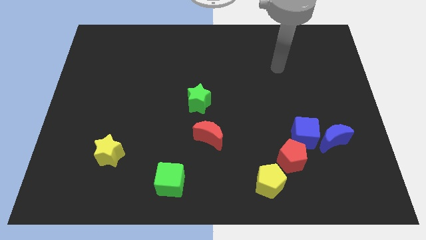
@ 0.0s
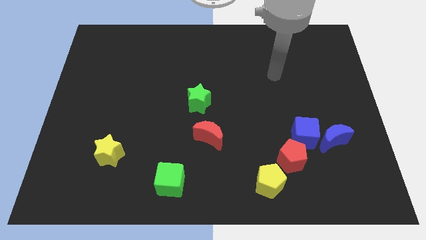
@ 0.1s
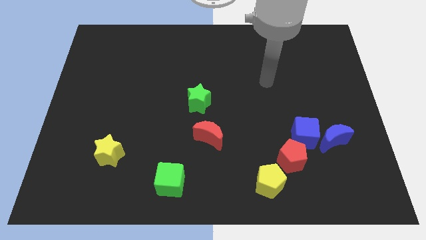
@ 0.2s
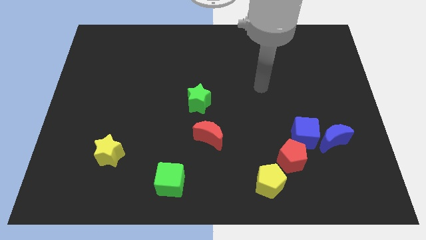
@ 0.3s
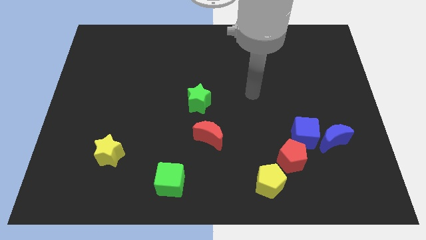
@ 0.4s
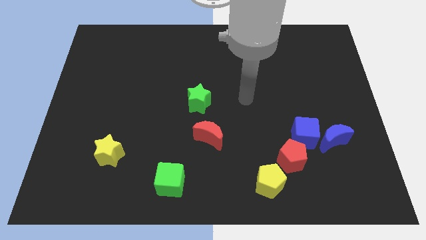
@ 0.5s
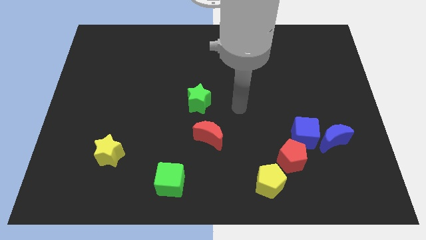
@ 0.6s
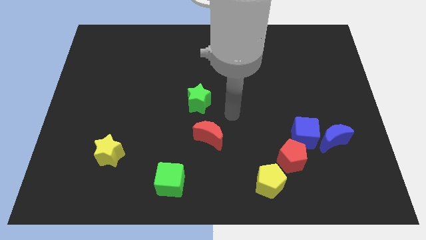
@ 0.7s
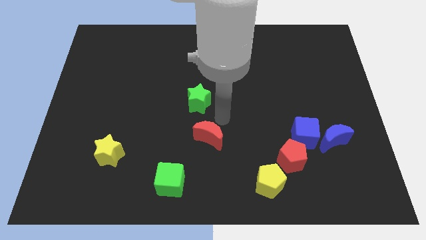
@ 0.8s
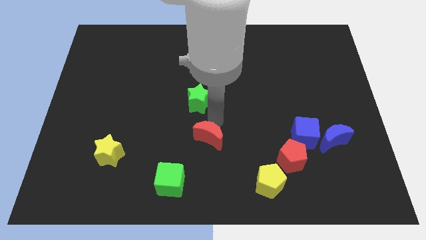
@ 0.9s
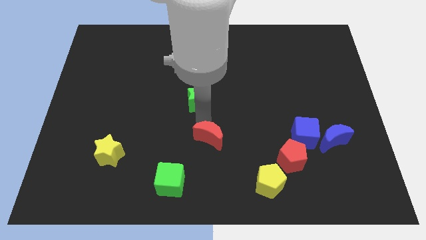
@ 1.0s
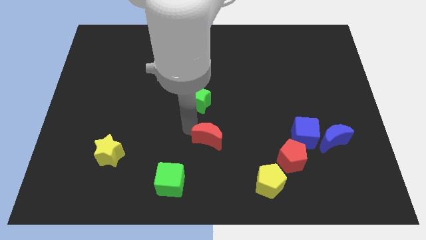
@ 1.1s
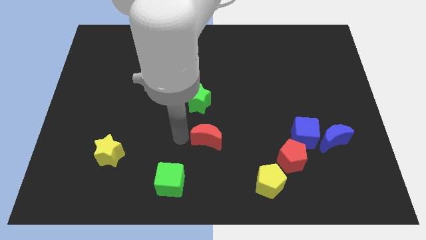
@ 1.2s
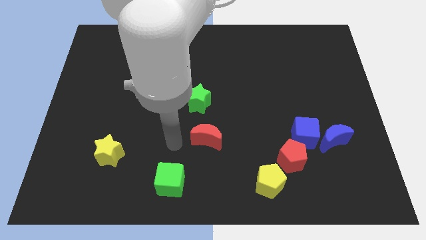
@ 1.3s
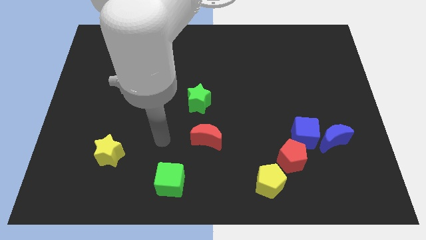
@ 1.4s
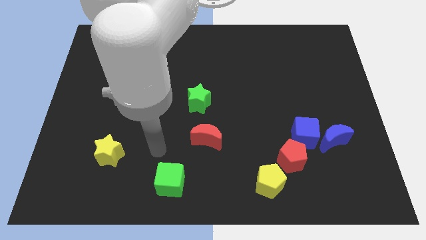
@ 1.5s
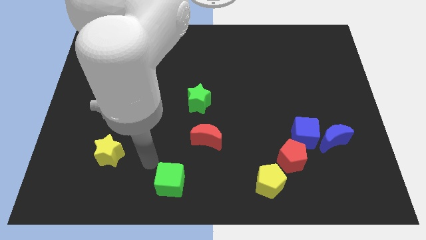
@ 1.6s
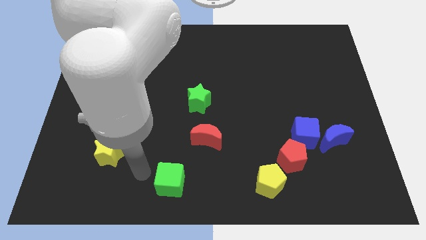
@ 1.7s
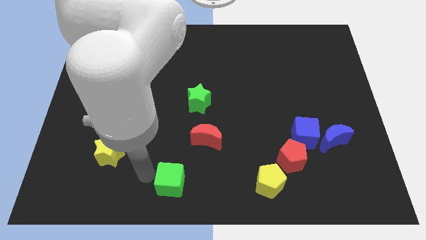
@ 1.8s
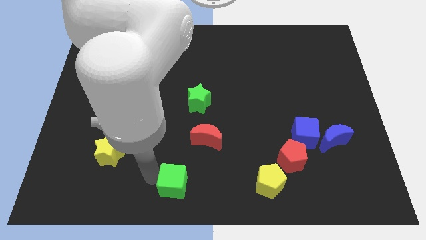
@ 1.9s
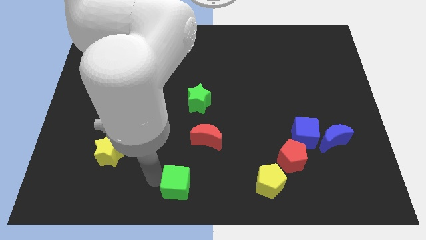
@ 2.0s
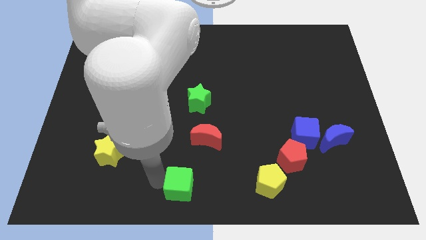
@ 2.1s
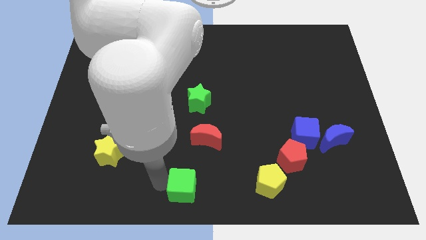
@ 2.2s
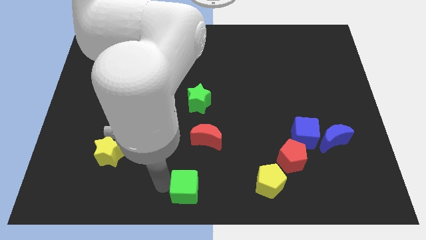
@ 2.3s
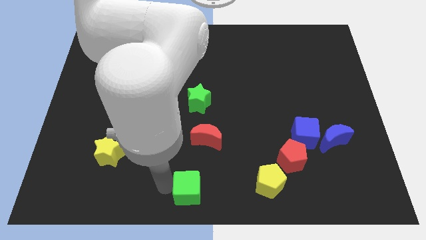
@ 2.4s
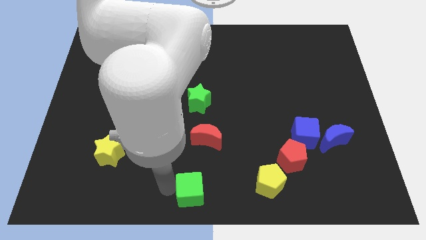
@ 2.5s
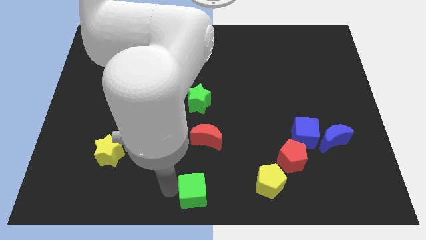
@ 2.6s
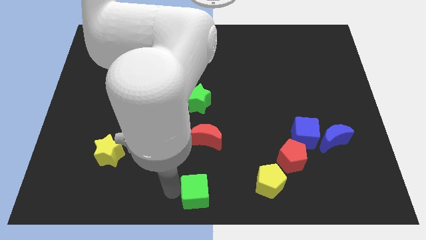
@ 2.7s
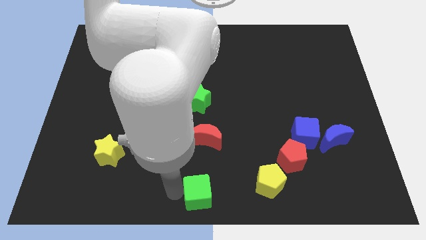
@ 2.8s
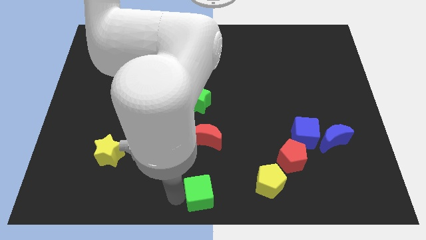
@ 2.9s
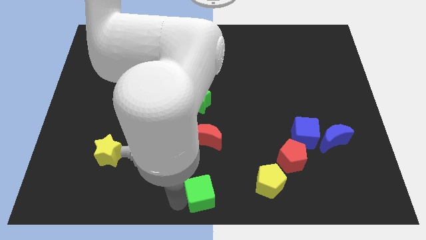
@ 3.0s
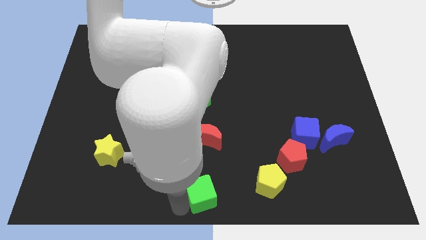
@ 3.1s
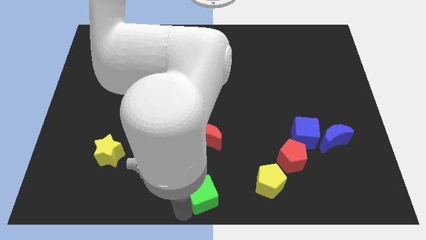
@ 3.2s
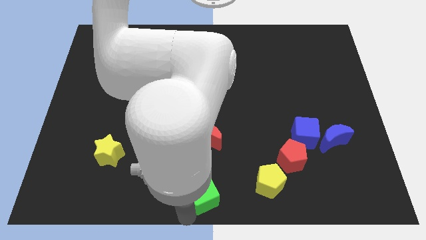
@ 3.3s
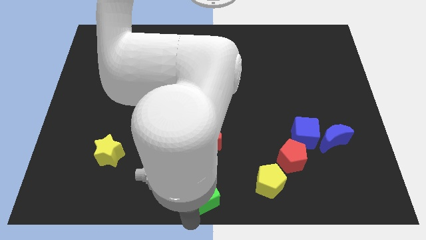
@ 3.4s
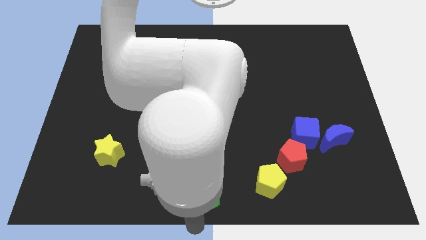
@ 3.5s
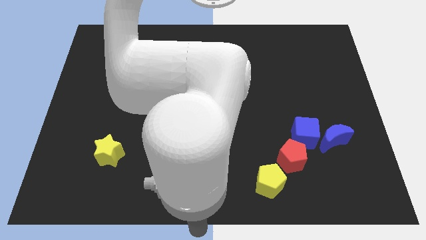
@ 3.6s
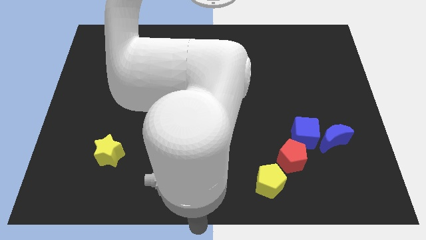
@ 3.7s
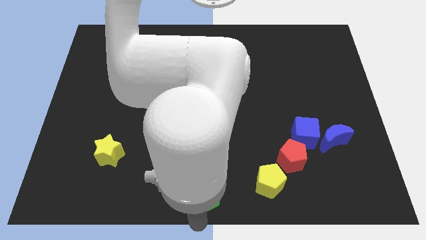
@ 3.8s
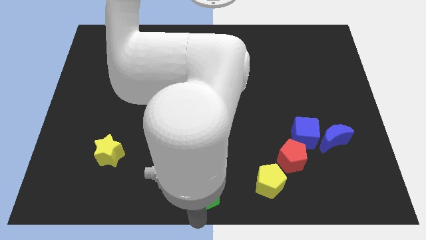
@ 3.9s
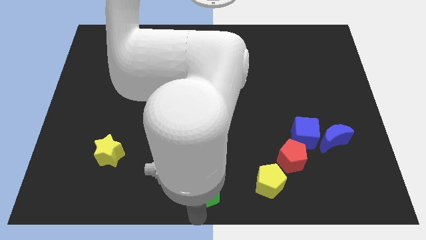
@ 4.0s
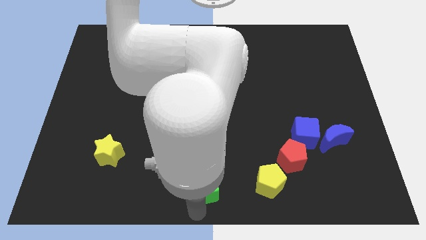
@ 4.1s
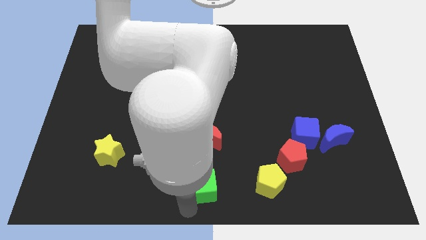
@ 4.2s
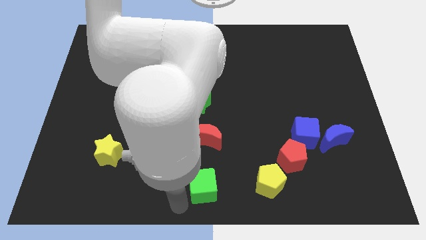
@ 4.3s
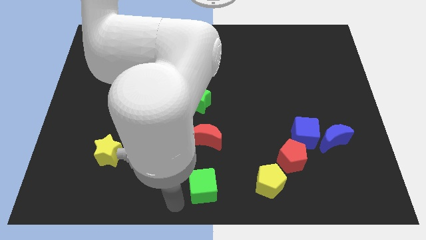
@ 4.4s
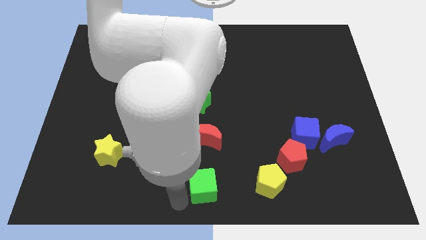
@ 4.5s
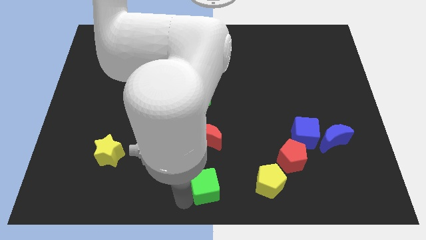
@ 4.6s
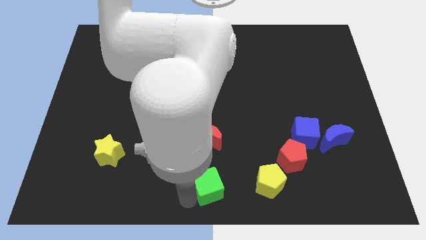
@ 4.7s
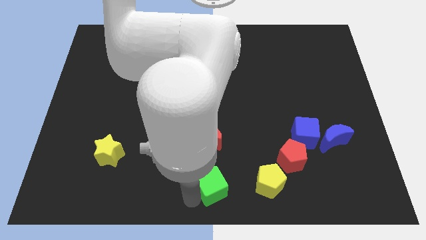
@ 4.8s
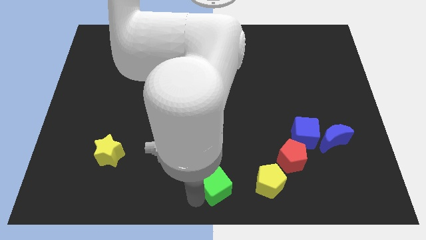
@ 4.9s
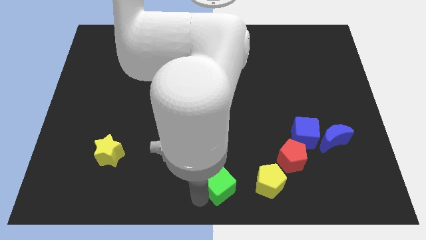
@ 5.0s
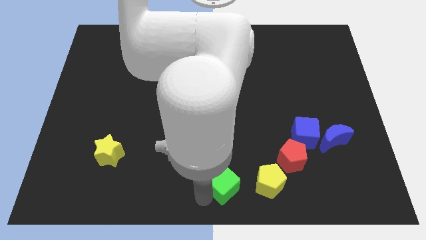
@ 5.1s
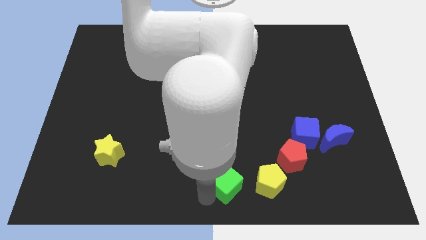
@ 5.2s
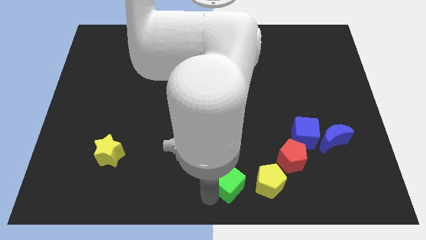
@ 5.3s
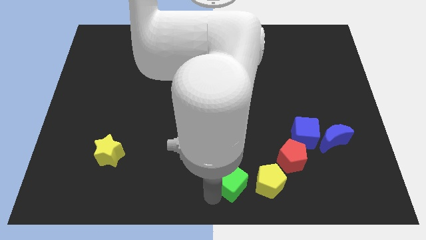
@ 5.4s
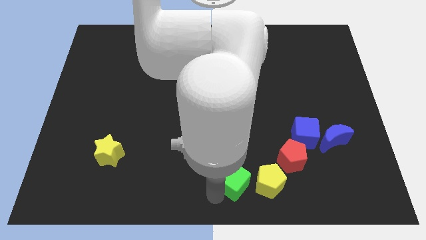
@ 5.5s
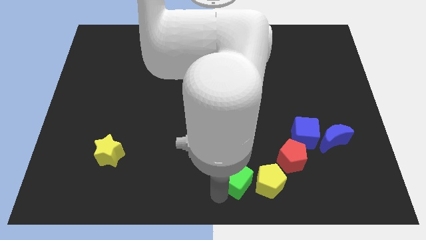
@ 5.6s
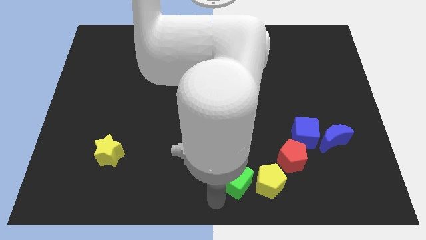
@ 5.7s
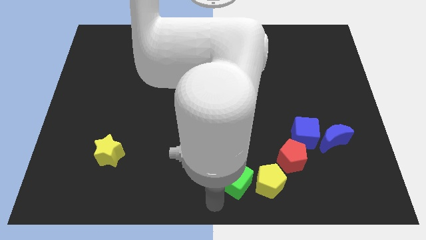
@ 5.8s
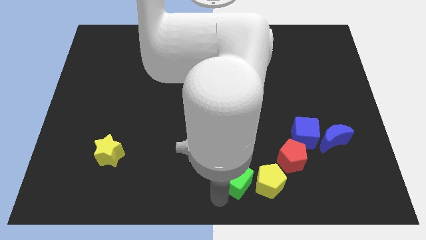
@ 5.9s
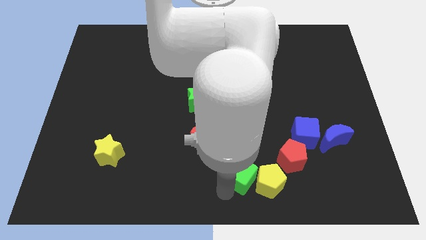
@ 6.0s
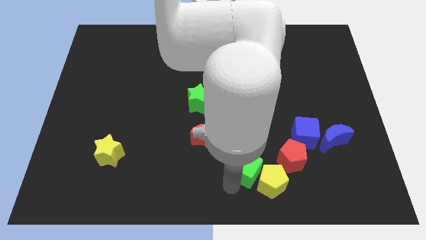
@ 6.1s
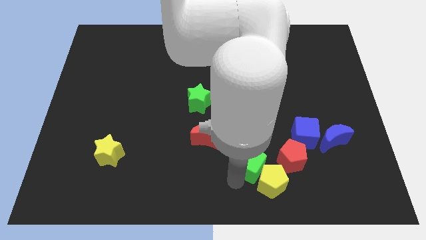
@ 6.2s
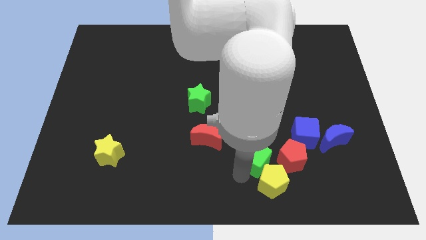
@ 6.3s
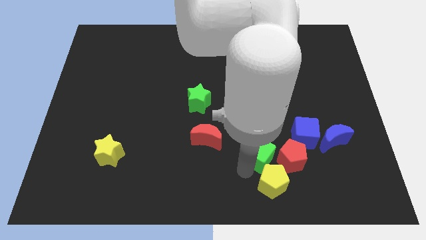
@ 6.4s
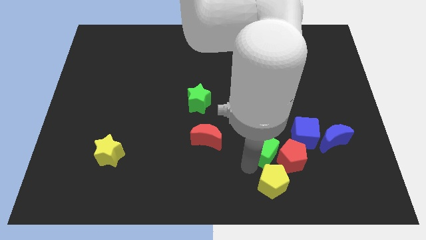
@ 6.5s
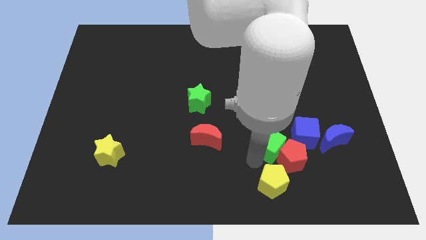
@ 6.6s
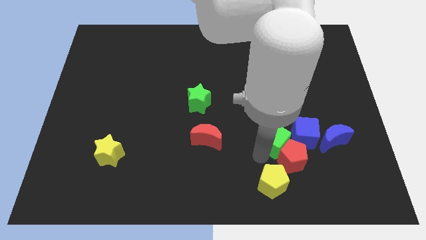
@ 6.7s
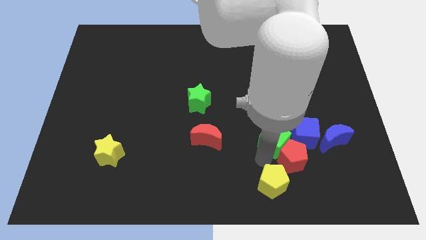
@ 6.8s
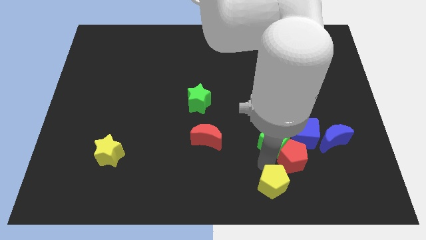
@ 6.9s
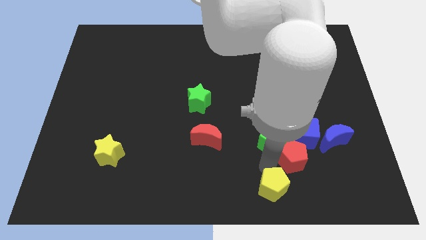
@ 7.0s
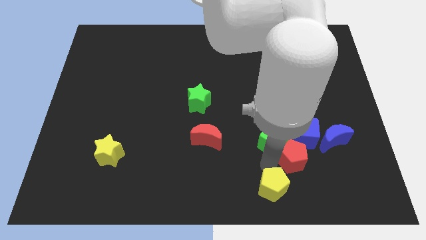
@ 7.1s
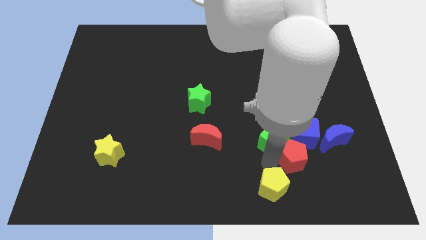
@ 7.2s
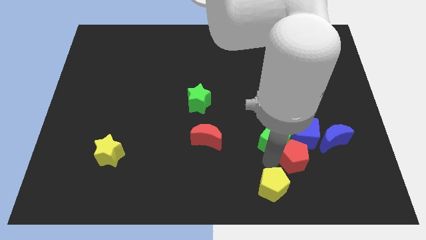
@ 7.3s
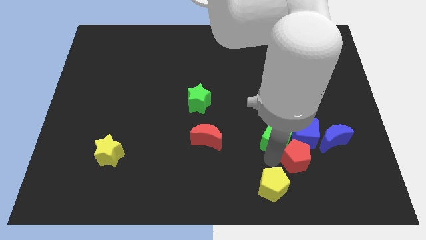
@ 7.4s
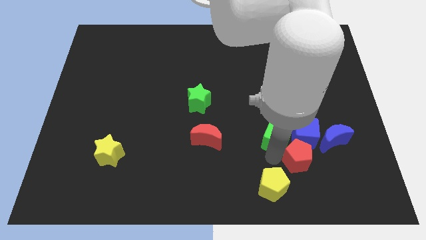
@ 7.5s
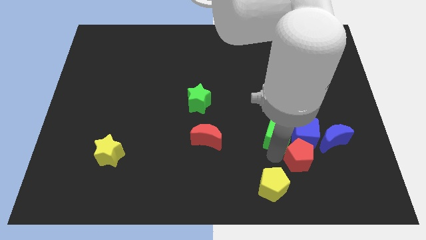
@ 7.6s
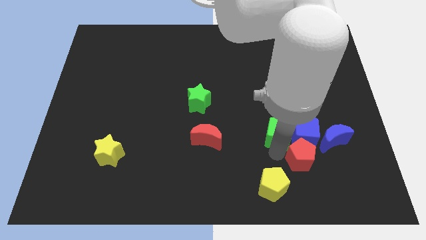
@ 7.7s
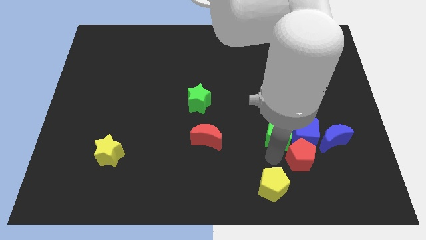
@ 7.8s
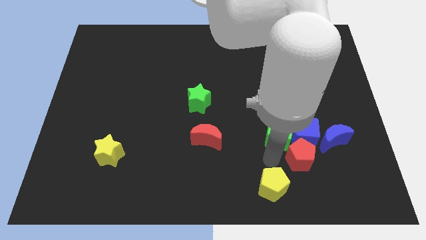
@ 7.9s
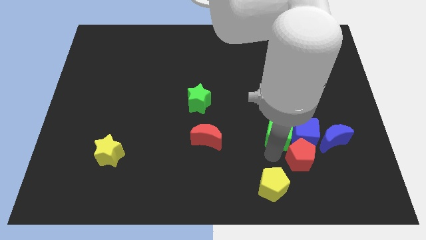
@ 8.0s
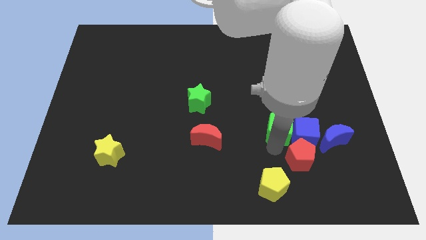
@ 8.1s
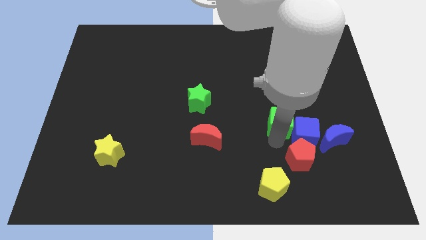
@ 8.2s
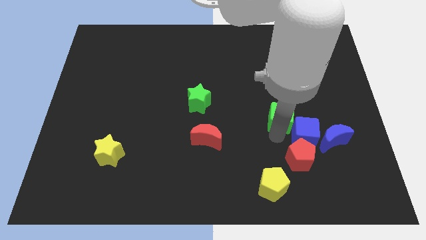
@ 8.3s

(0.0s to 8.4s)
push the green cube to the top of the blue cube
